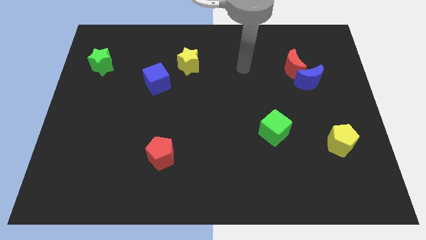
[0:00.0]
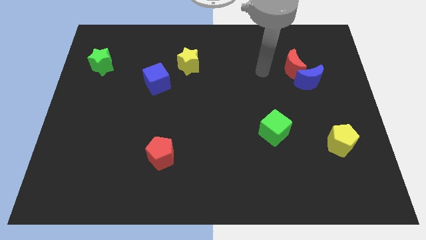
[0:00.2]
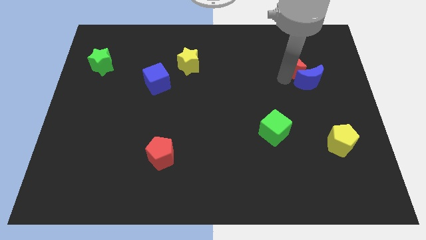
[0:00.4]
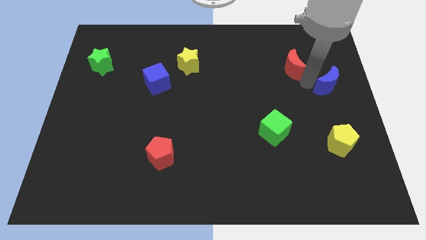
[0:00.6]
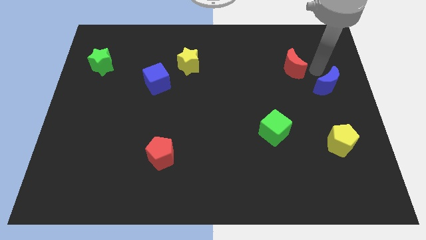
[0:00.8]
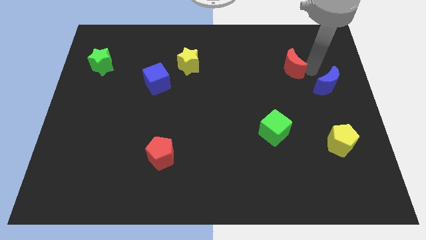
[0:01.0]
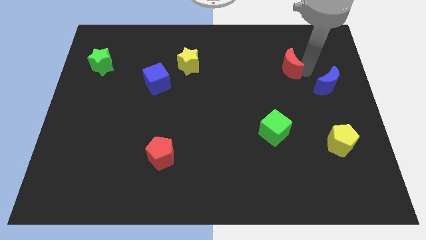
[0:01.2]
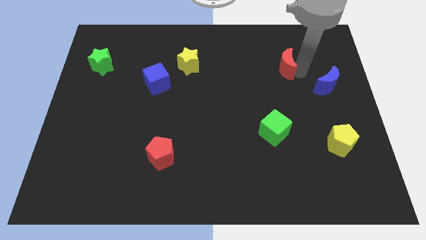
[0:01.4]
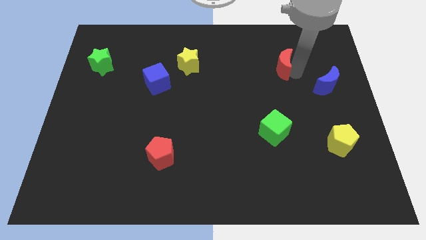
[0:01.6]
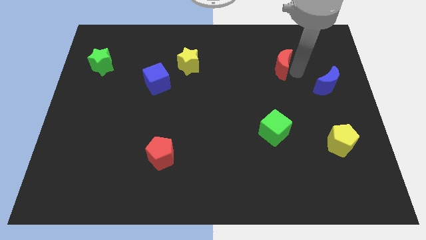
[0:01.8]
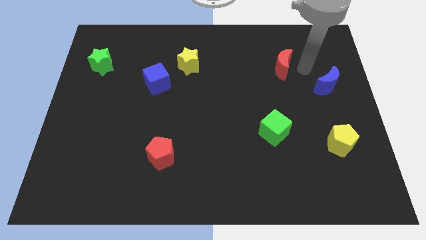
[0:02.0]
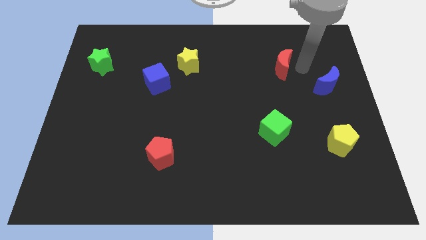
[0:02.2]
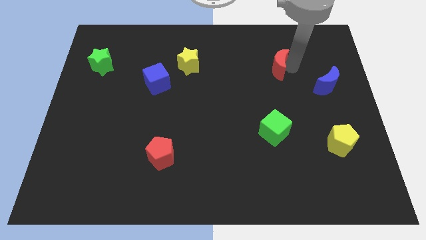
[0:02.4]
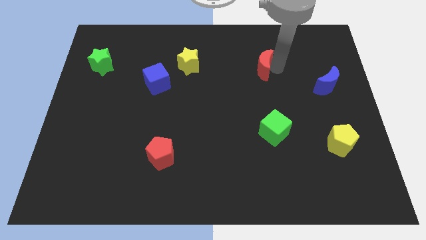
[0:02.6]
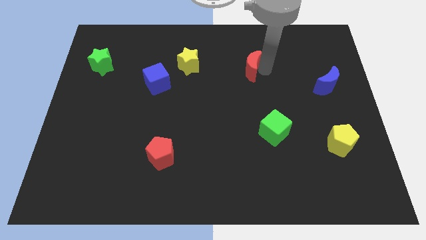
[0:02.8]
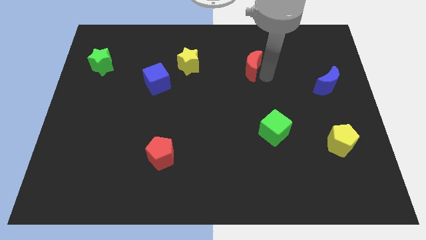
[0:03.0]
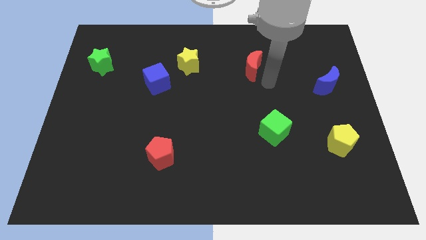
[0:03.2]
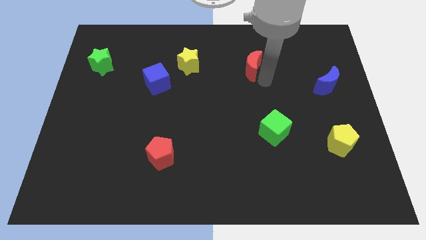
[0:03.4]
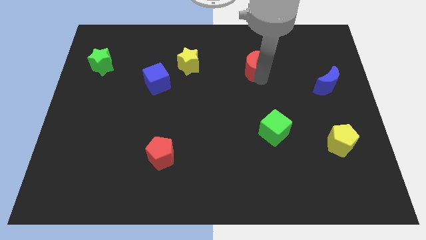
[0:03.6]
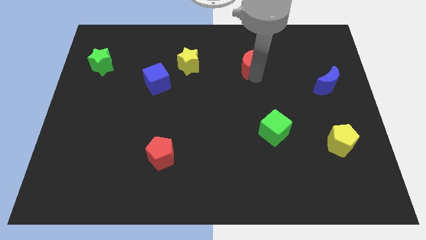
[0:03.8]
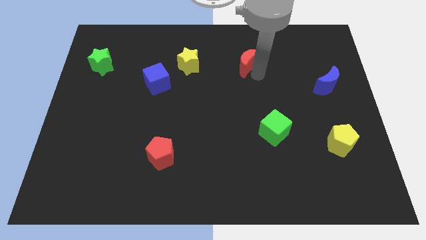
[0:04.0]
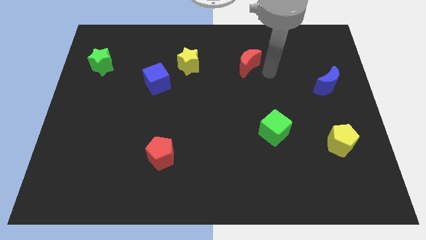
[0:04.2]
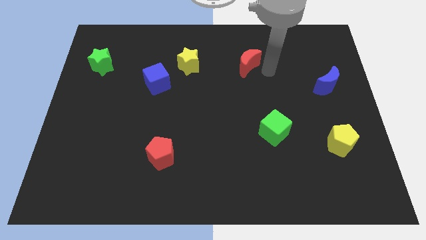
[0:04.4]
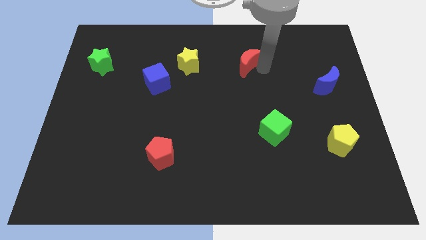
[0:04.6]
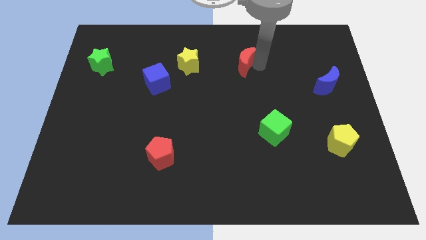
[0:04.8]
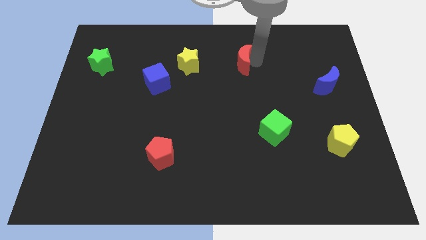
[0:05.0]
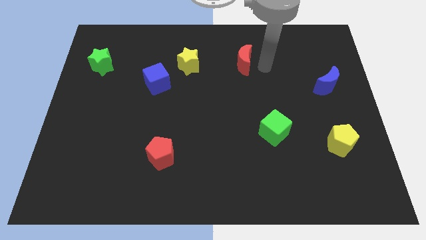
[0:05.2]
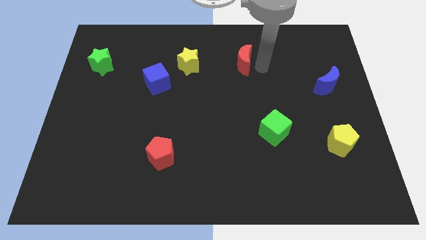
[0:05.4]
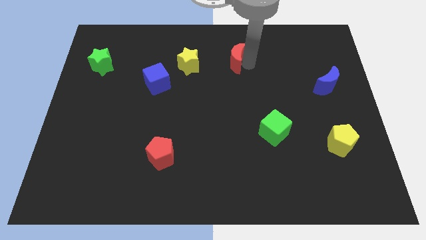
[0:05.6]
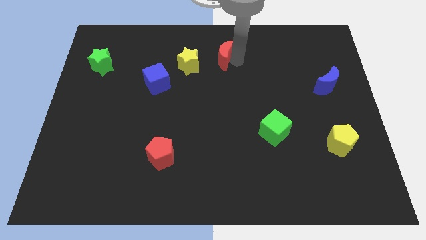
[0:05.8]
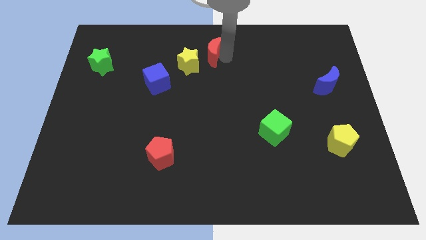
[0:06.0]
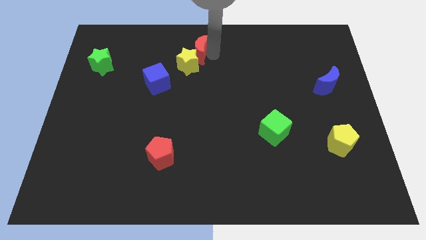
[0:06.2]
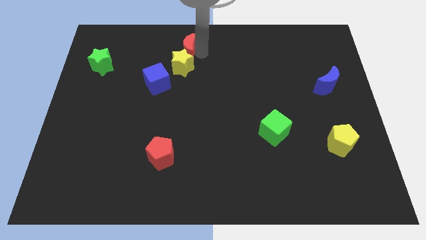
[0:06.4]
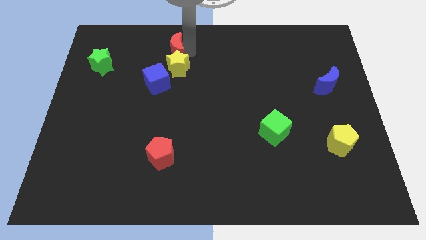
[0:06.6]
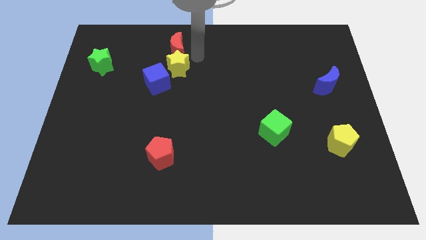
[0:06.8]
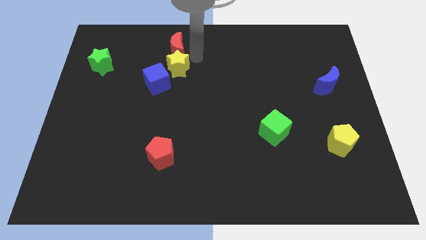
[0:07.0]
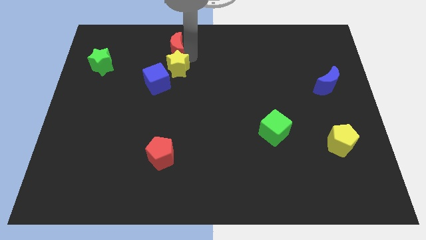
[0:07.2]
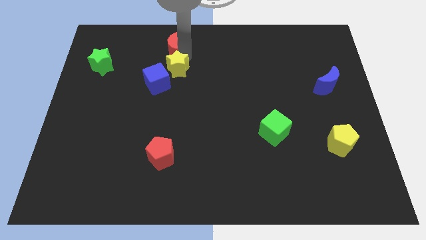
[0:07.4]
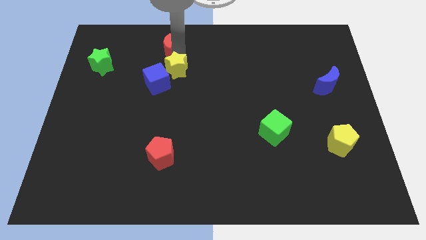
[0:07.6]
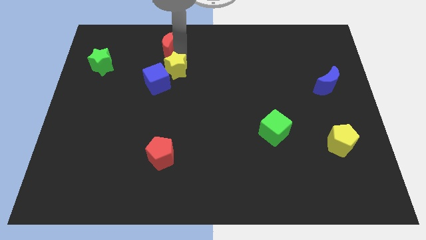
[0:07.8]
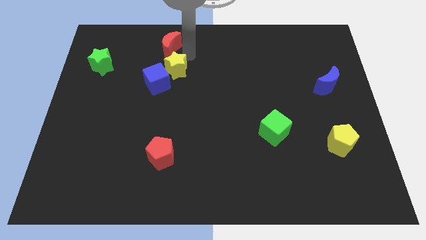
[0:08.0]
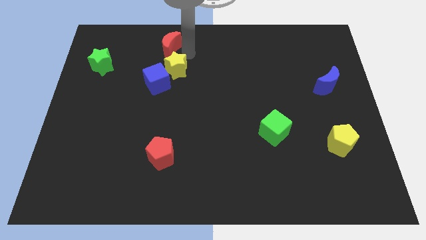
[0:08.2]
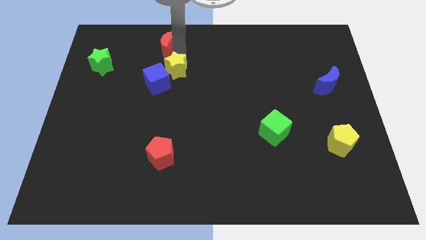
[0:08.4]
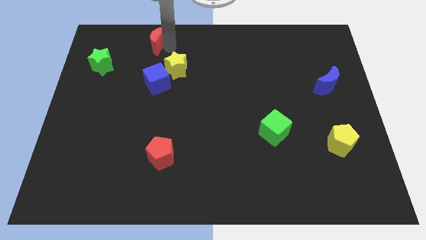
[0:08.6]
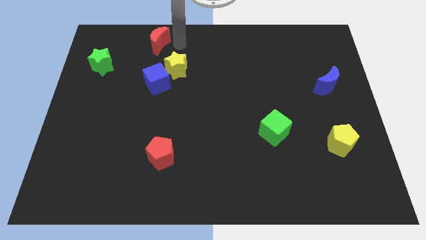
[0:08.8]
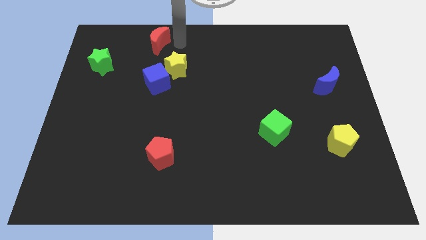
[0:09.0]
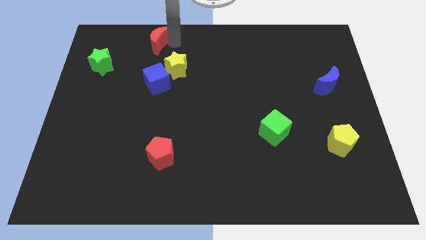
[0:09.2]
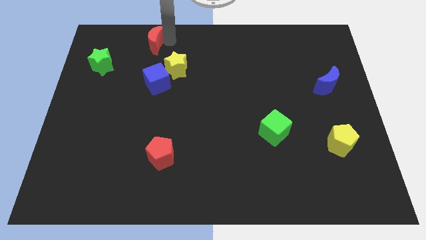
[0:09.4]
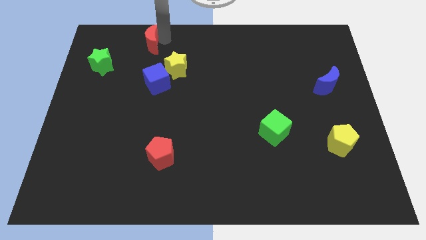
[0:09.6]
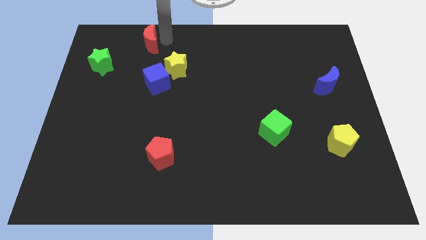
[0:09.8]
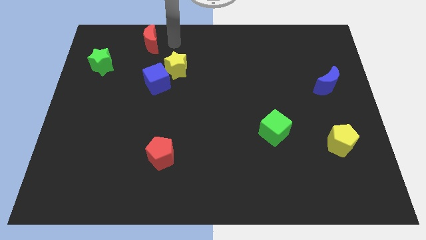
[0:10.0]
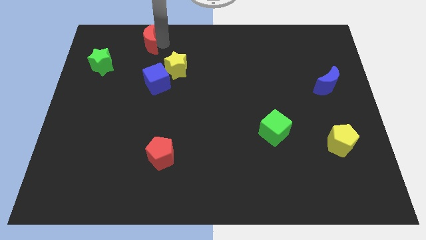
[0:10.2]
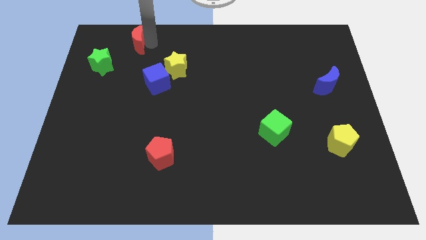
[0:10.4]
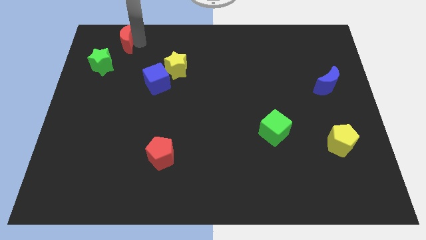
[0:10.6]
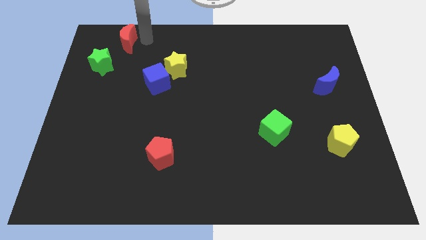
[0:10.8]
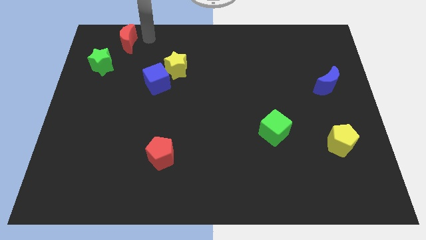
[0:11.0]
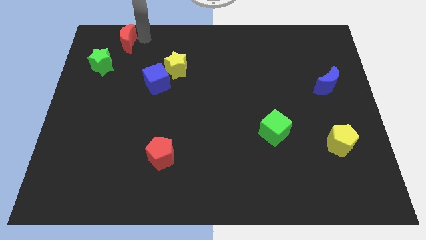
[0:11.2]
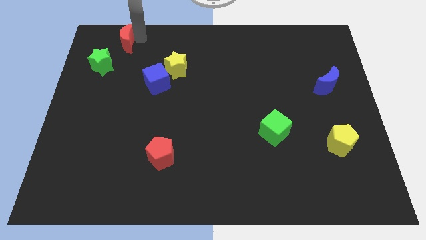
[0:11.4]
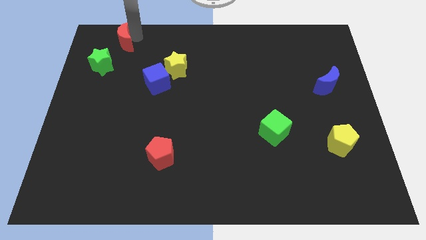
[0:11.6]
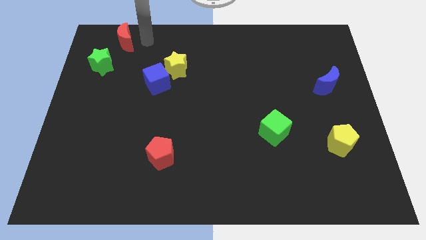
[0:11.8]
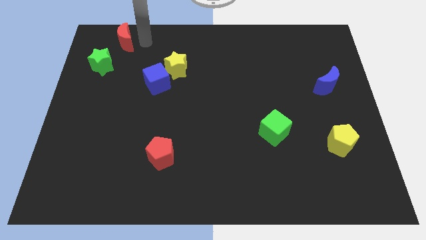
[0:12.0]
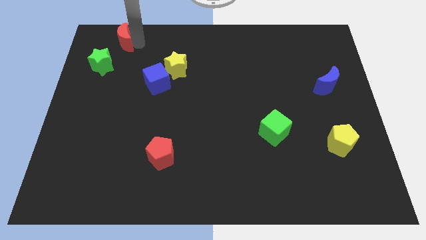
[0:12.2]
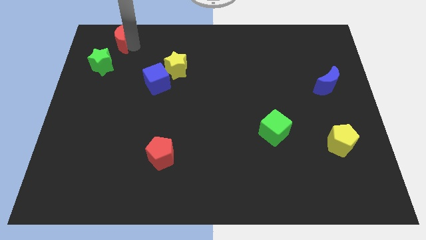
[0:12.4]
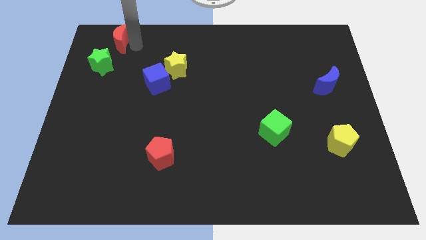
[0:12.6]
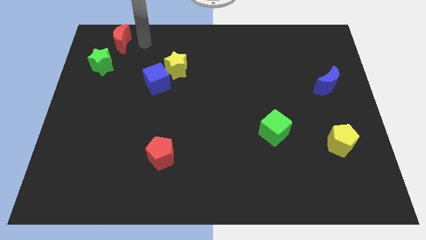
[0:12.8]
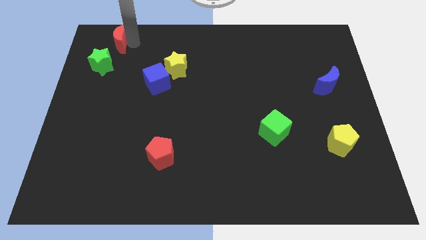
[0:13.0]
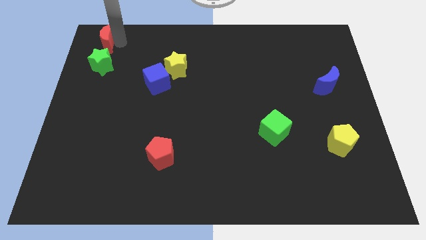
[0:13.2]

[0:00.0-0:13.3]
move the red moon to the top left of the board
